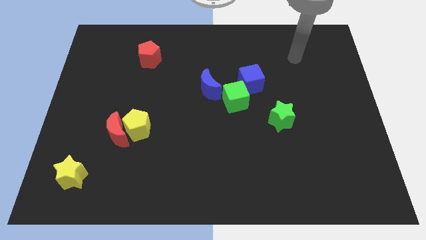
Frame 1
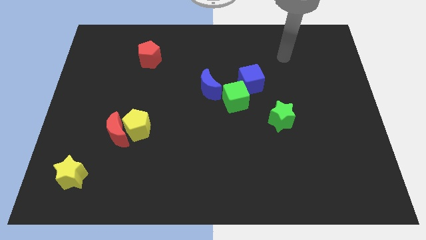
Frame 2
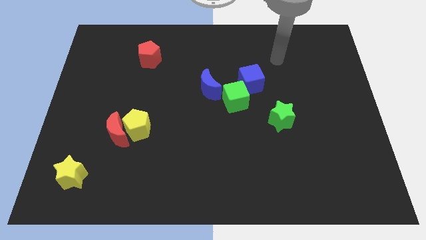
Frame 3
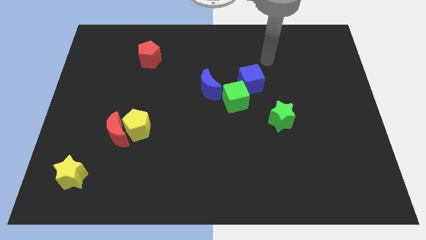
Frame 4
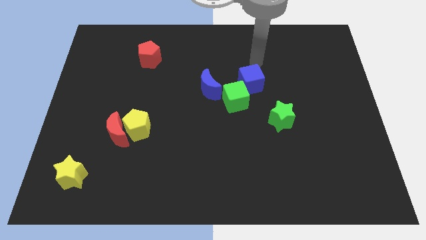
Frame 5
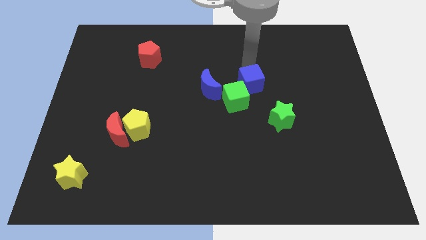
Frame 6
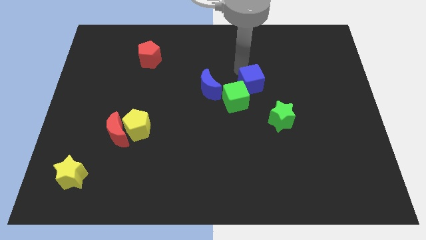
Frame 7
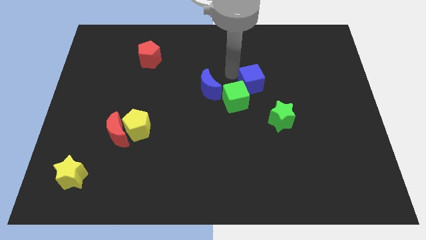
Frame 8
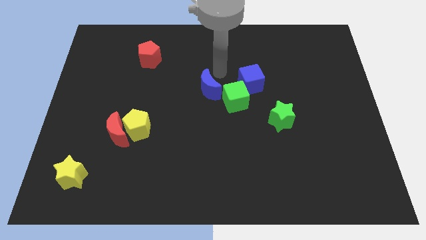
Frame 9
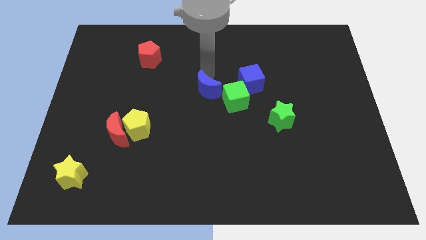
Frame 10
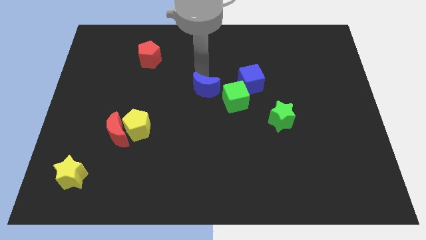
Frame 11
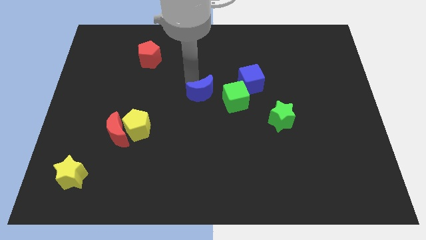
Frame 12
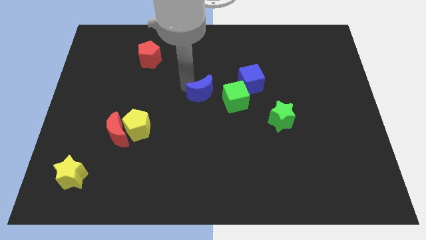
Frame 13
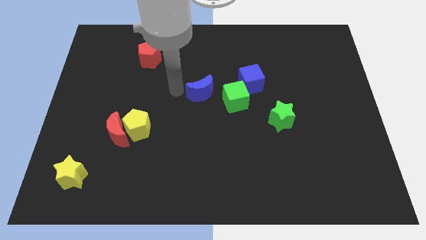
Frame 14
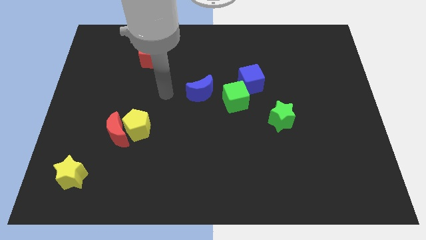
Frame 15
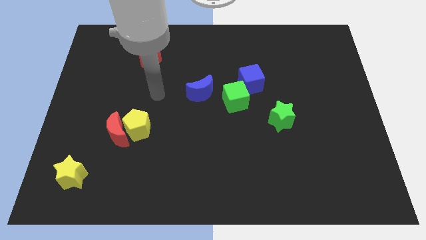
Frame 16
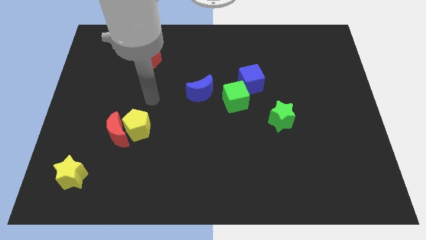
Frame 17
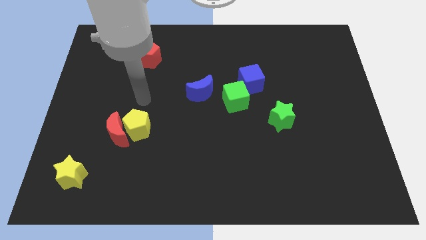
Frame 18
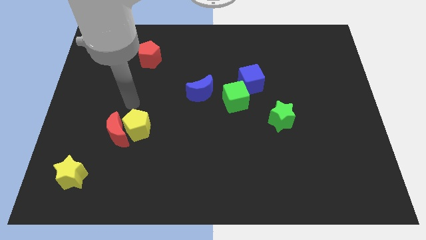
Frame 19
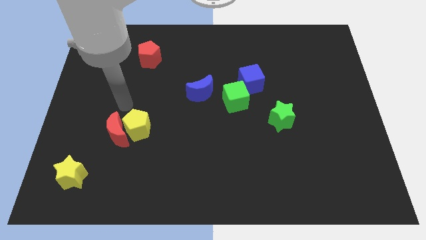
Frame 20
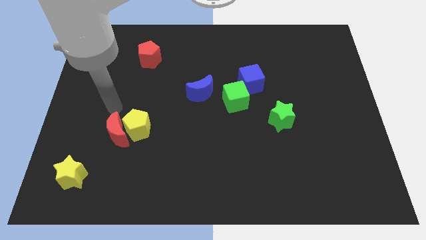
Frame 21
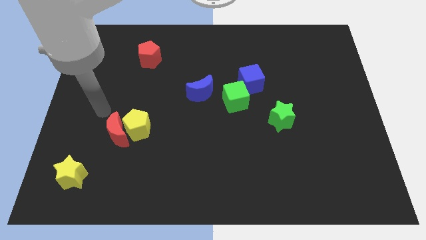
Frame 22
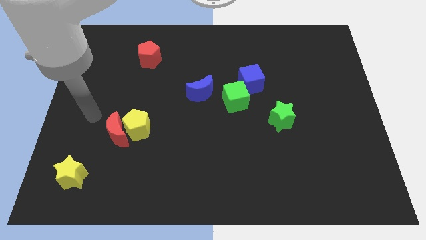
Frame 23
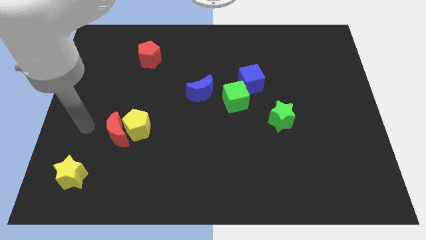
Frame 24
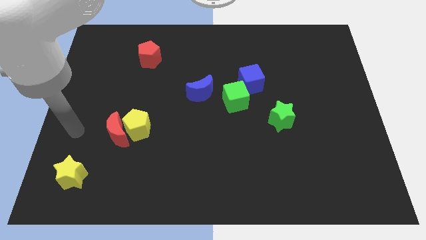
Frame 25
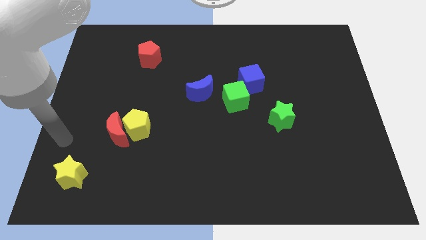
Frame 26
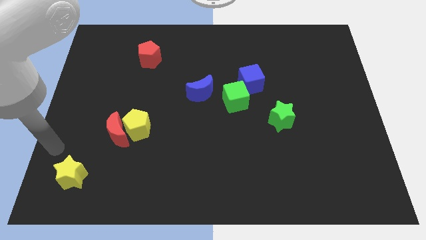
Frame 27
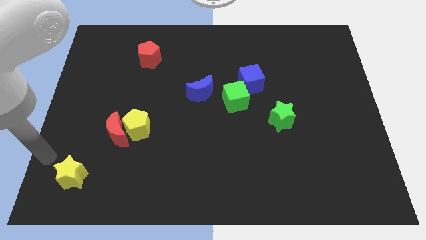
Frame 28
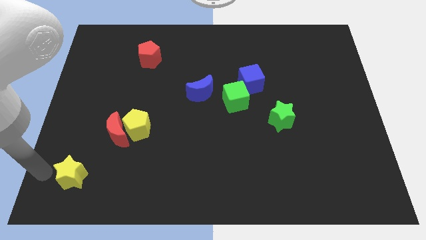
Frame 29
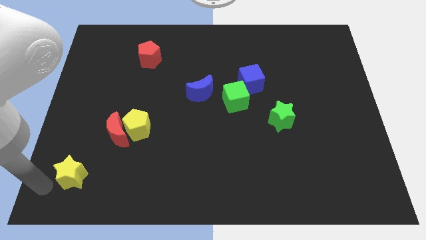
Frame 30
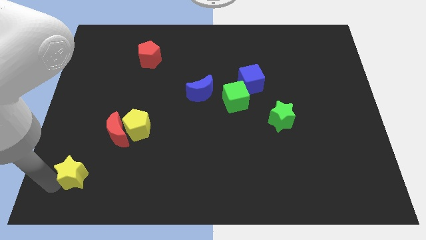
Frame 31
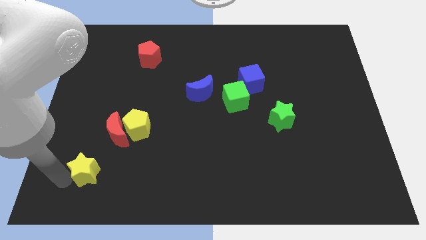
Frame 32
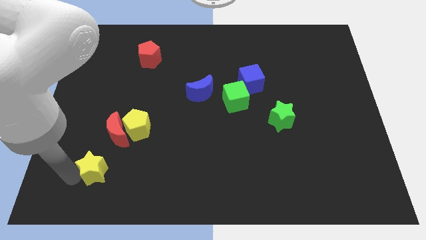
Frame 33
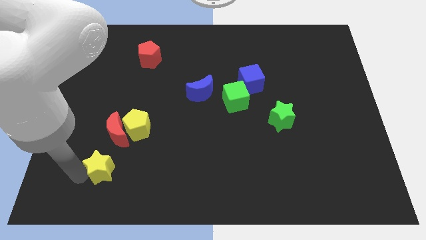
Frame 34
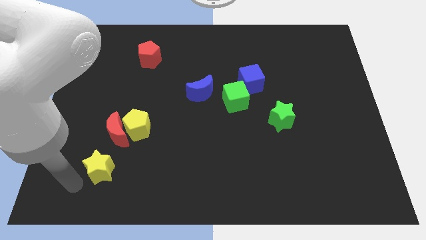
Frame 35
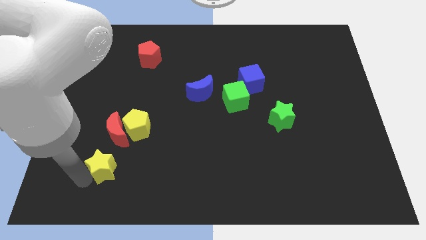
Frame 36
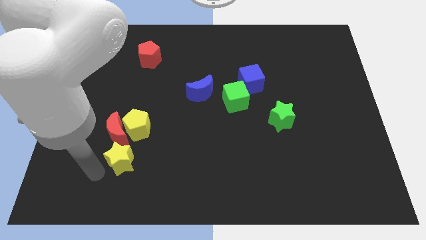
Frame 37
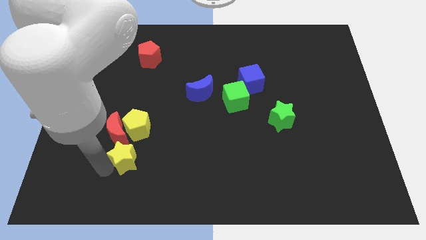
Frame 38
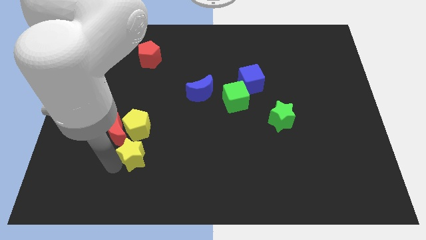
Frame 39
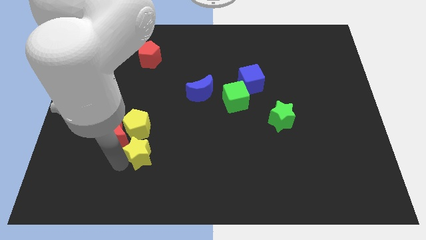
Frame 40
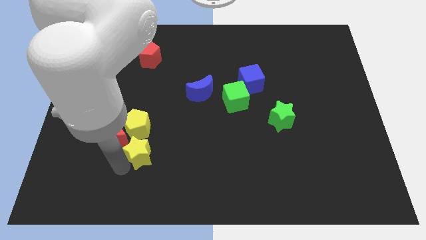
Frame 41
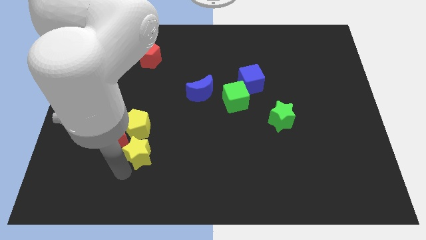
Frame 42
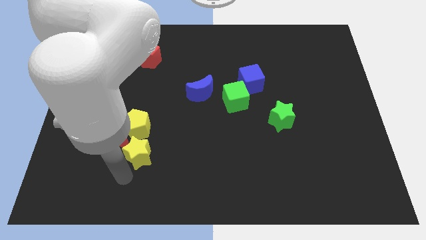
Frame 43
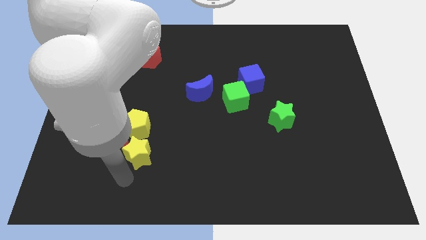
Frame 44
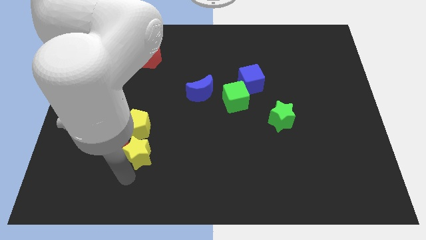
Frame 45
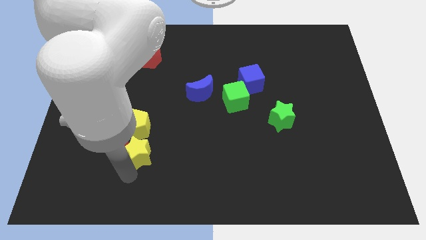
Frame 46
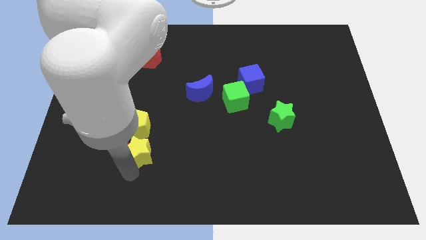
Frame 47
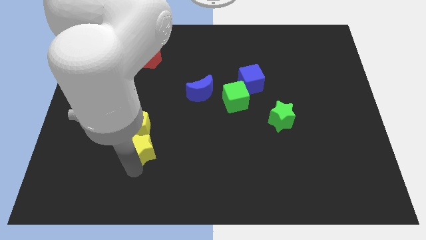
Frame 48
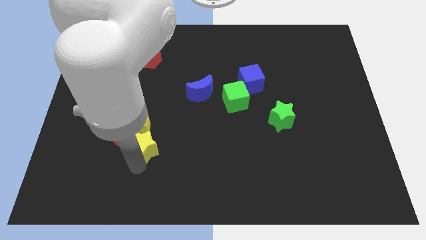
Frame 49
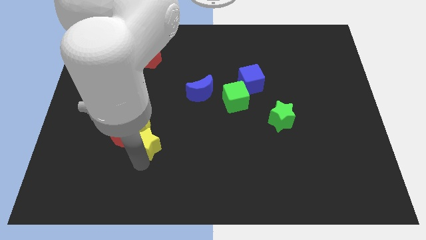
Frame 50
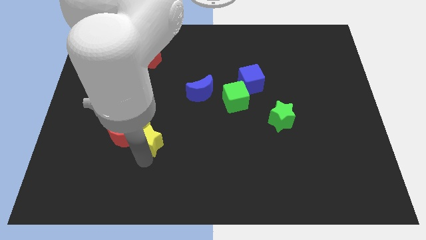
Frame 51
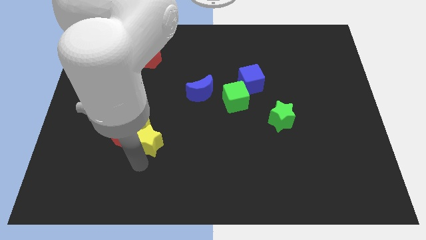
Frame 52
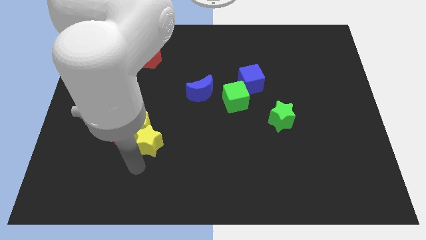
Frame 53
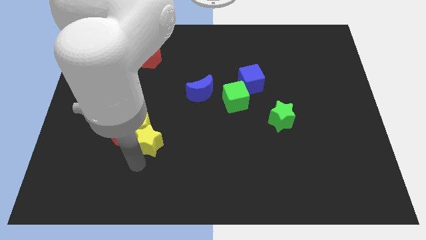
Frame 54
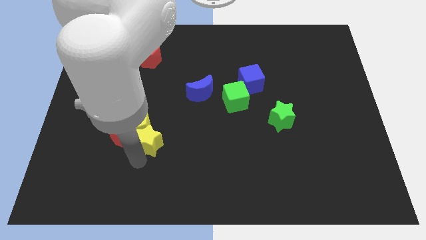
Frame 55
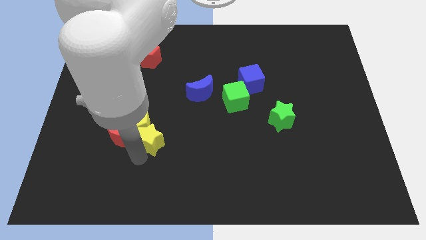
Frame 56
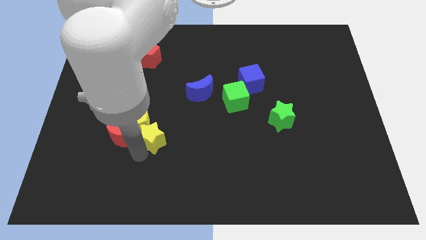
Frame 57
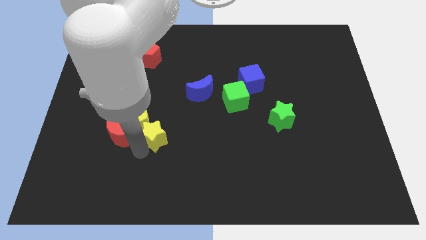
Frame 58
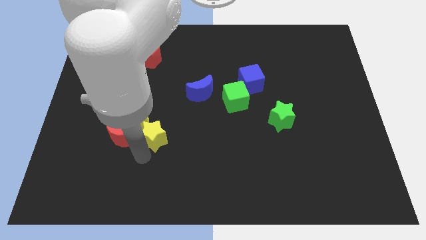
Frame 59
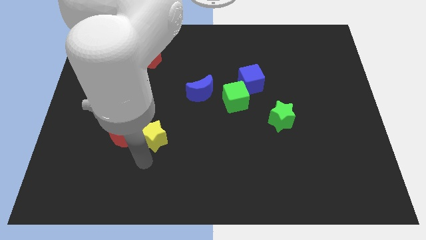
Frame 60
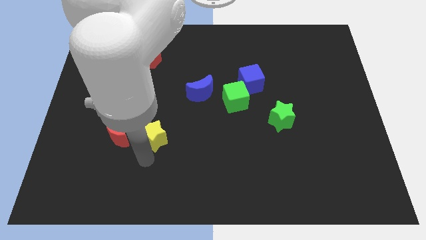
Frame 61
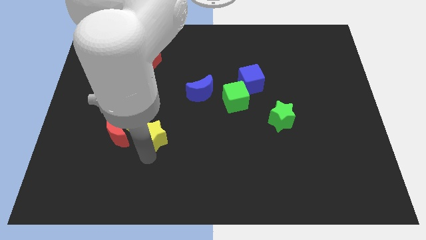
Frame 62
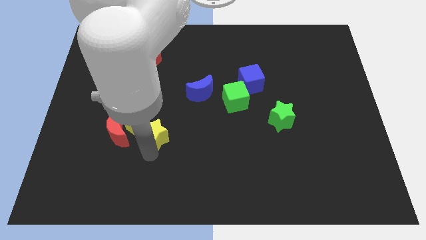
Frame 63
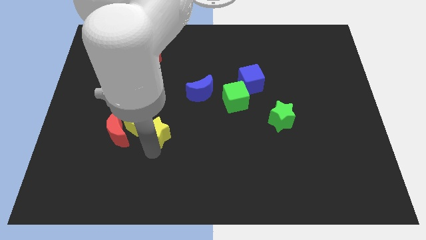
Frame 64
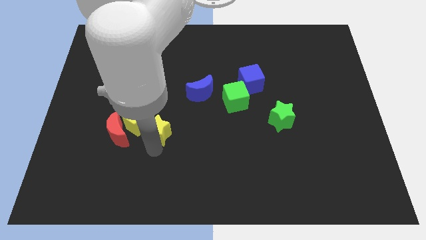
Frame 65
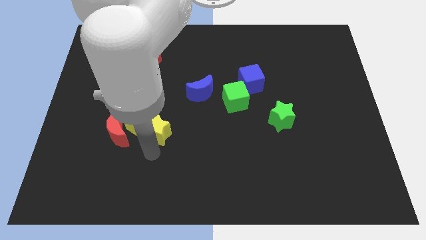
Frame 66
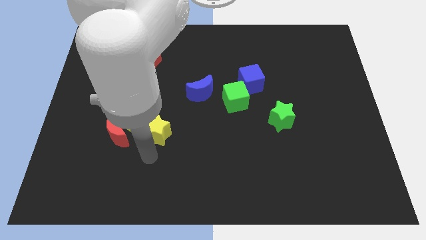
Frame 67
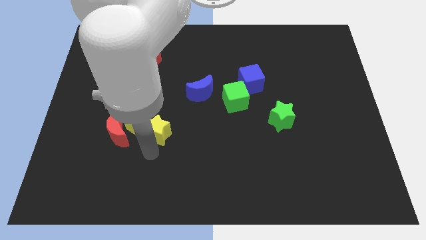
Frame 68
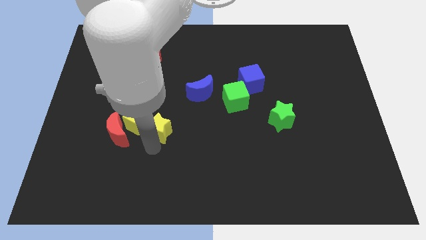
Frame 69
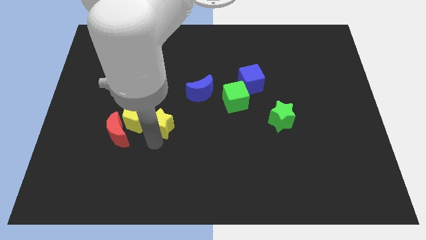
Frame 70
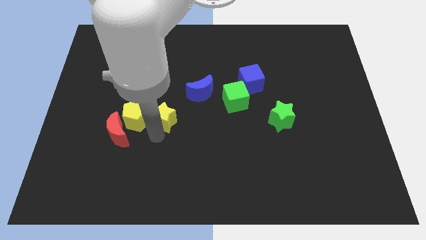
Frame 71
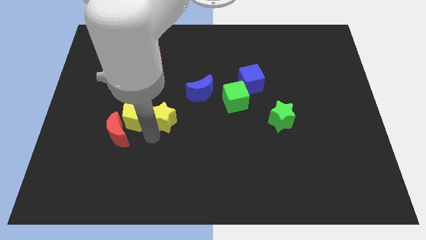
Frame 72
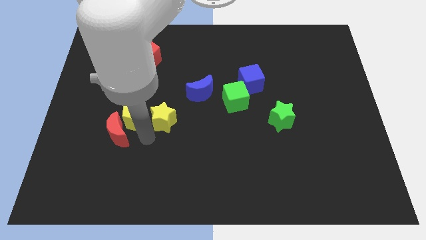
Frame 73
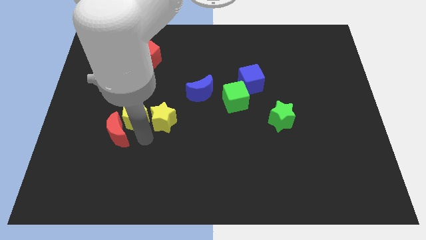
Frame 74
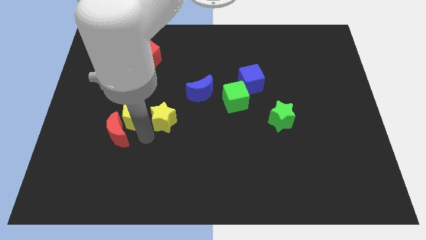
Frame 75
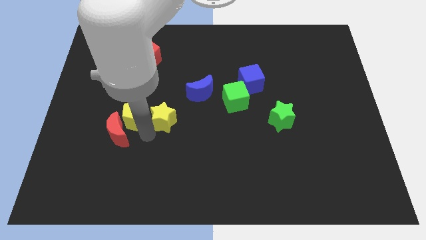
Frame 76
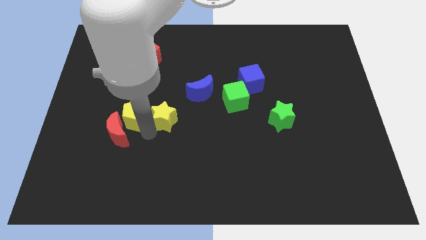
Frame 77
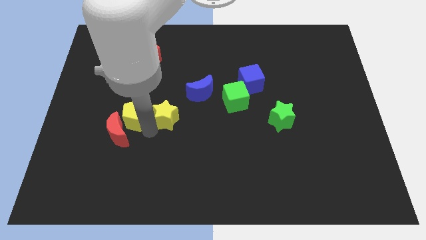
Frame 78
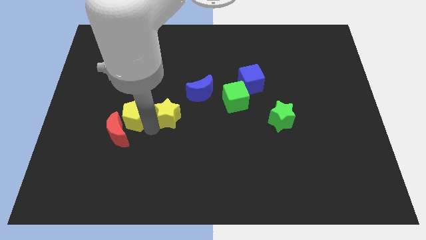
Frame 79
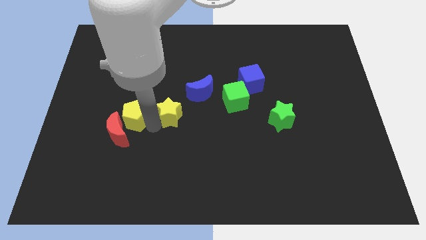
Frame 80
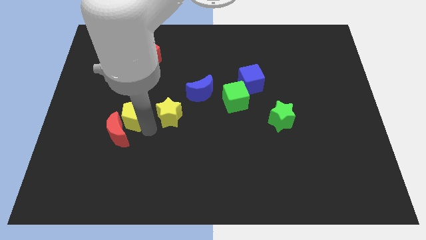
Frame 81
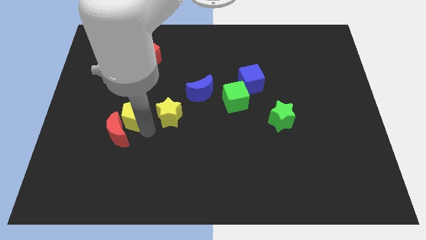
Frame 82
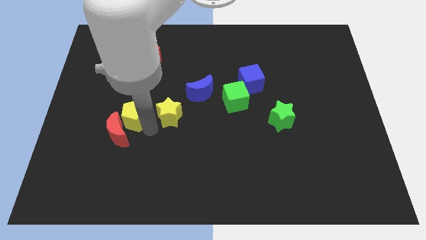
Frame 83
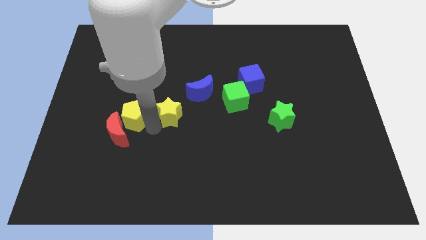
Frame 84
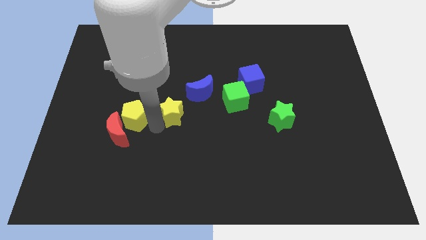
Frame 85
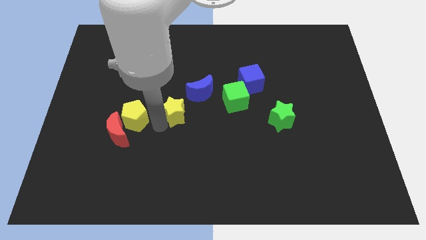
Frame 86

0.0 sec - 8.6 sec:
push the yellow star left of the green cube
